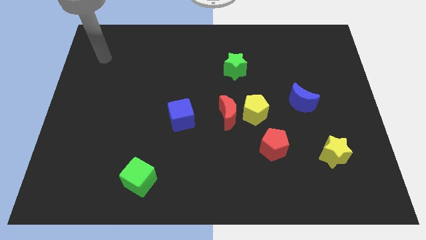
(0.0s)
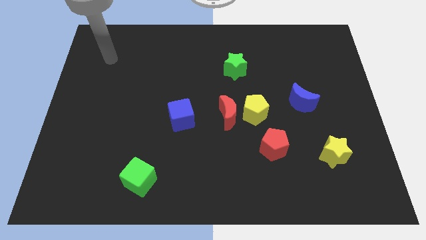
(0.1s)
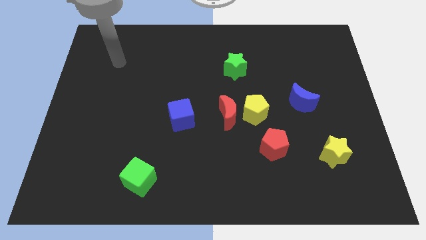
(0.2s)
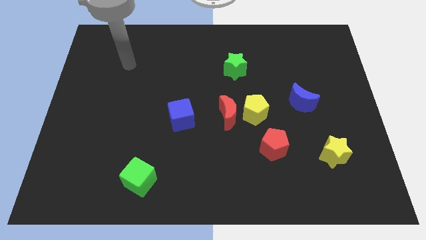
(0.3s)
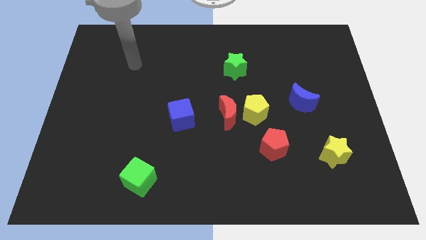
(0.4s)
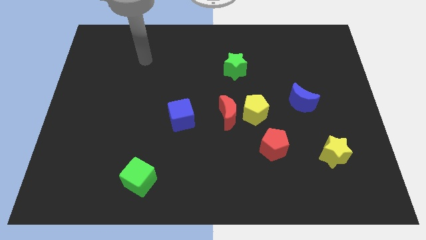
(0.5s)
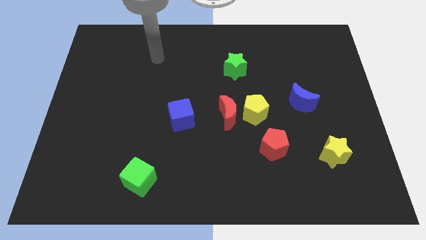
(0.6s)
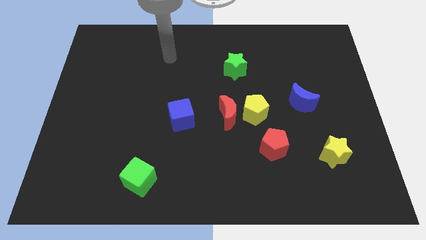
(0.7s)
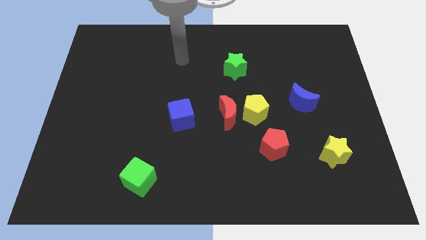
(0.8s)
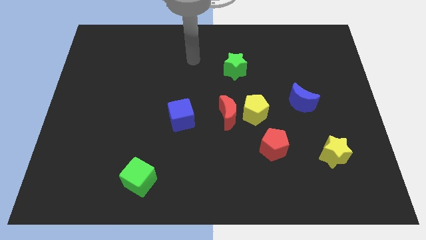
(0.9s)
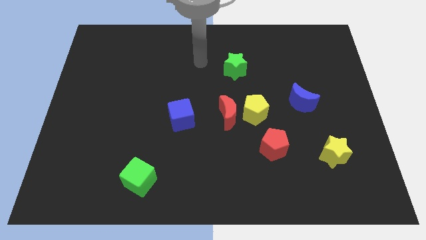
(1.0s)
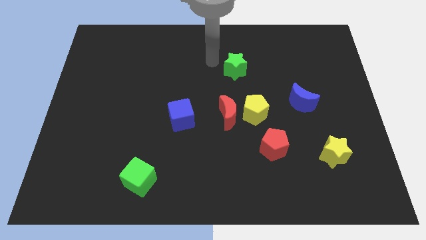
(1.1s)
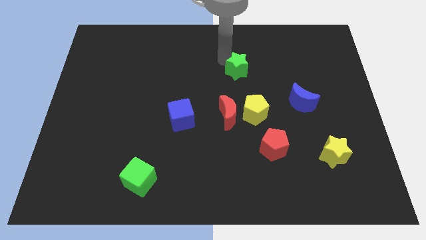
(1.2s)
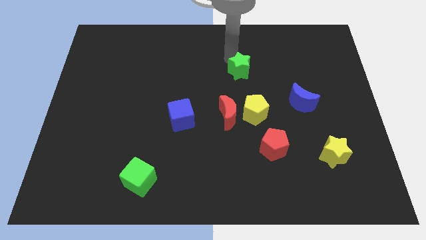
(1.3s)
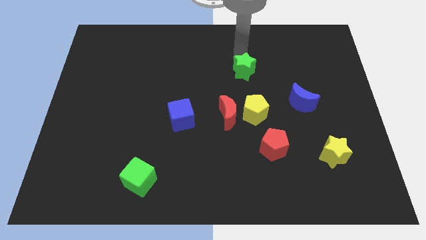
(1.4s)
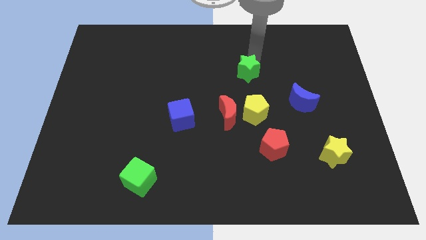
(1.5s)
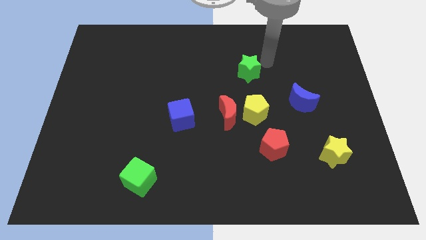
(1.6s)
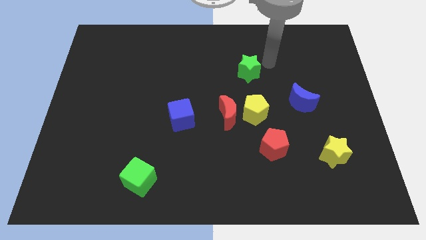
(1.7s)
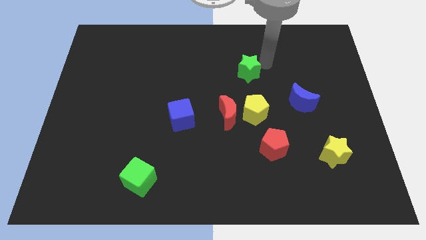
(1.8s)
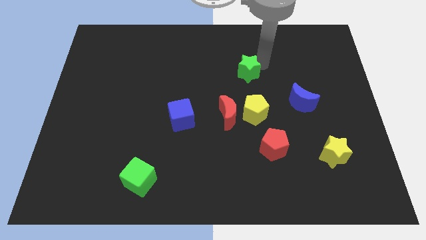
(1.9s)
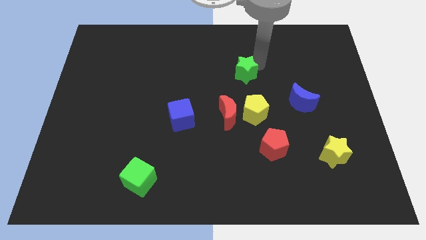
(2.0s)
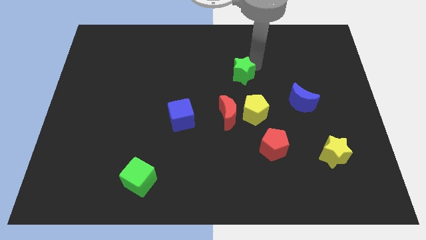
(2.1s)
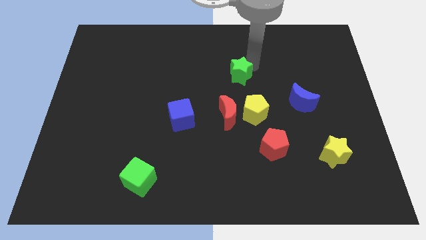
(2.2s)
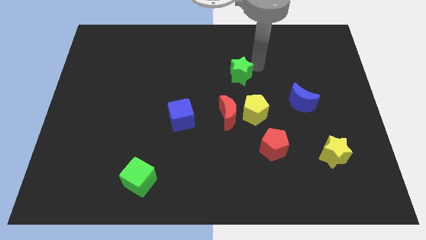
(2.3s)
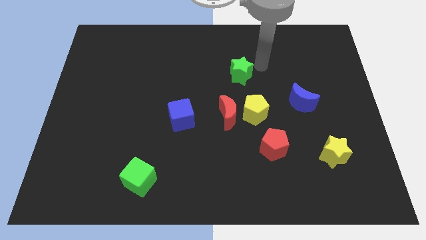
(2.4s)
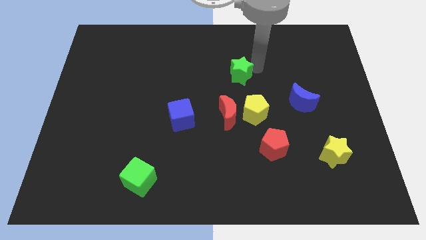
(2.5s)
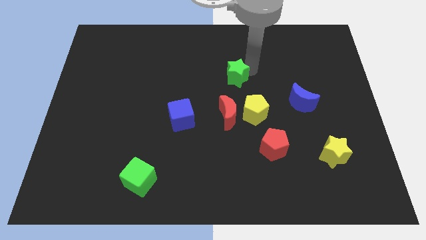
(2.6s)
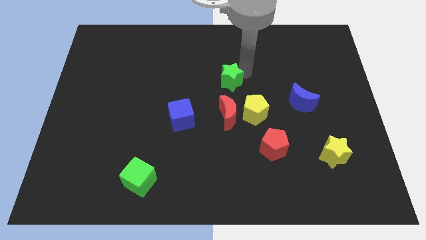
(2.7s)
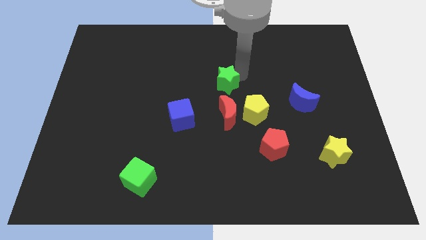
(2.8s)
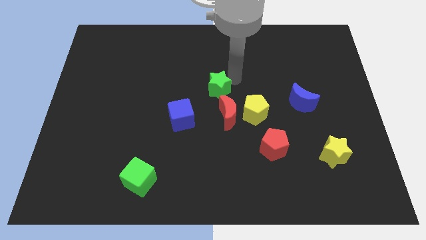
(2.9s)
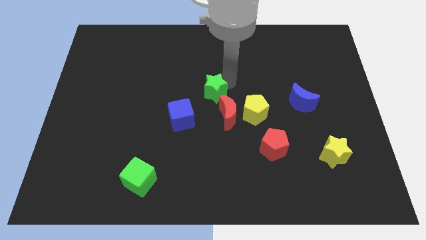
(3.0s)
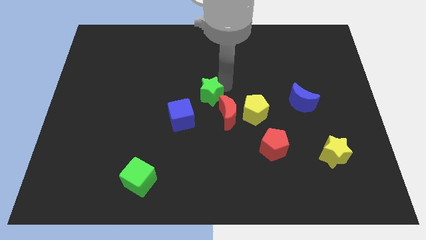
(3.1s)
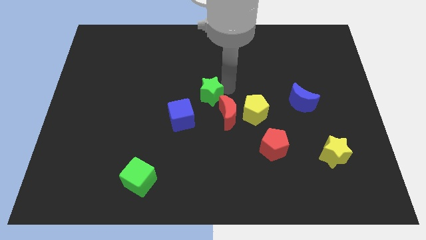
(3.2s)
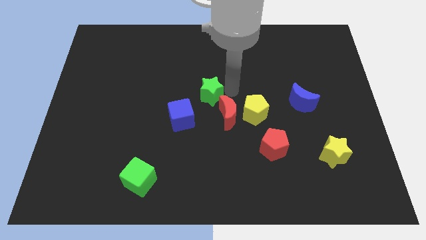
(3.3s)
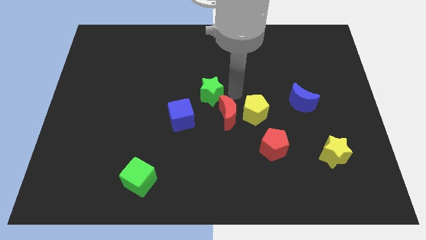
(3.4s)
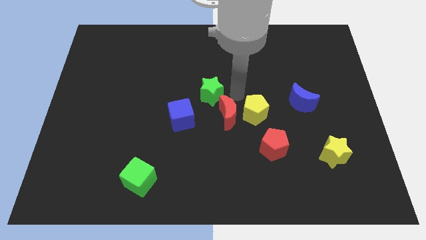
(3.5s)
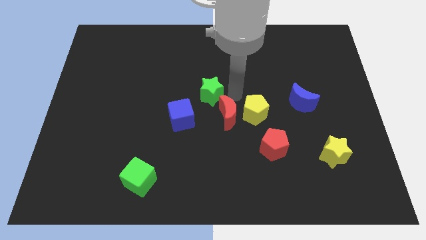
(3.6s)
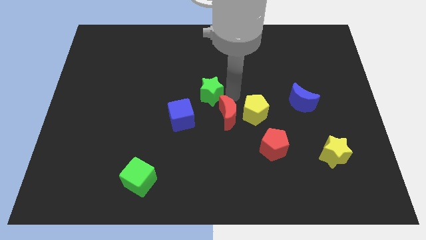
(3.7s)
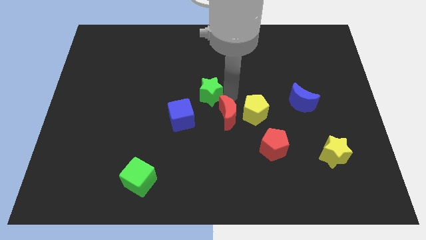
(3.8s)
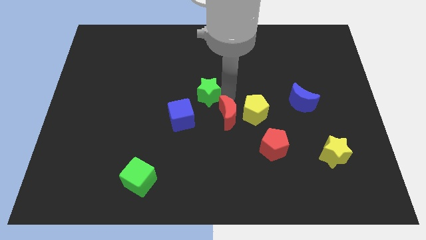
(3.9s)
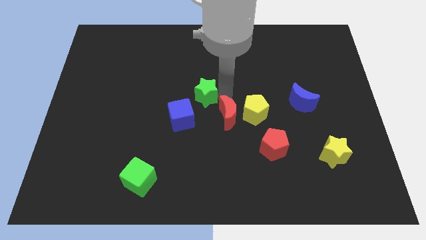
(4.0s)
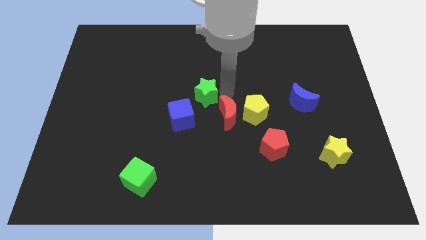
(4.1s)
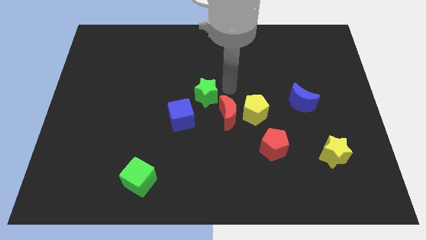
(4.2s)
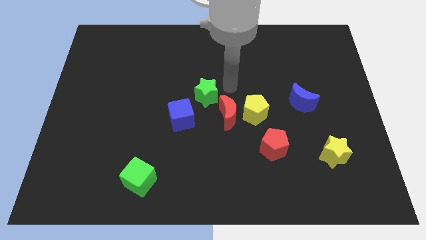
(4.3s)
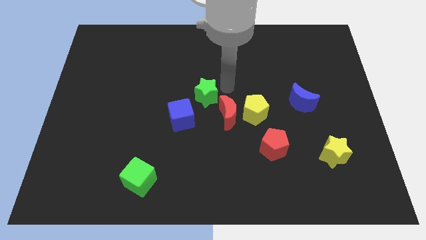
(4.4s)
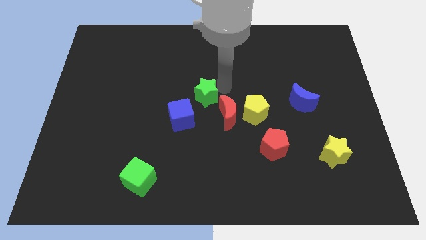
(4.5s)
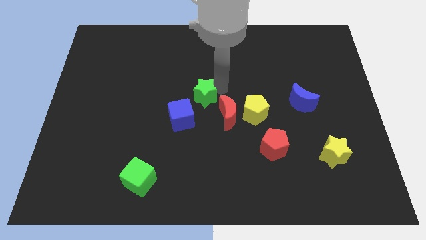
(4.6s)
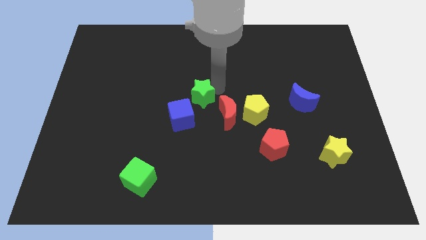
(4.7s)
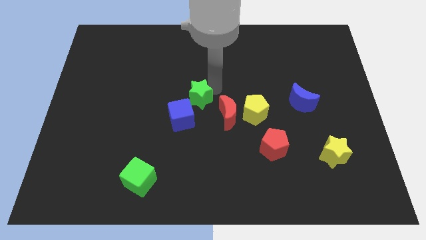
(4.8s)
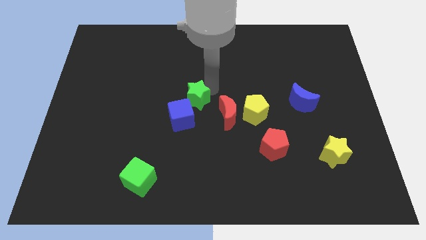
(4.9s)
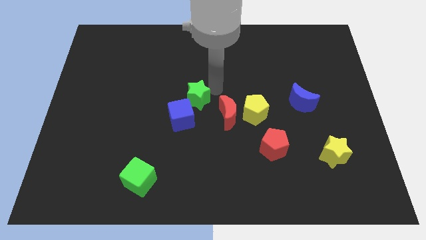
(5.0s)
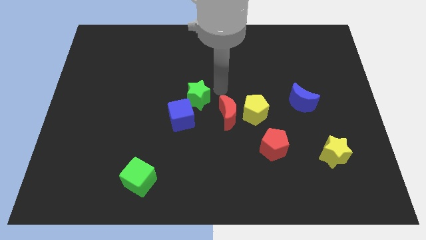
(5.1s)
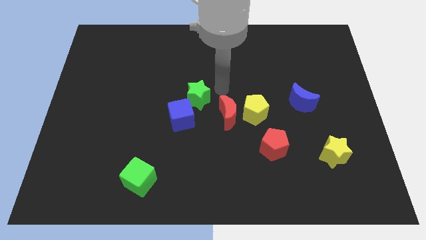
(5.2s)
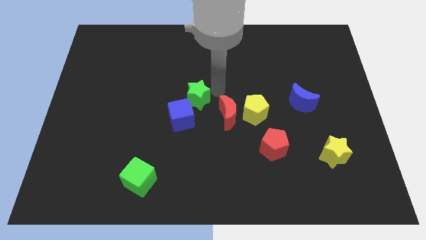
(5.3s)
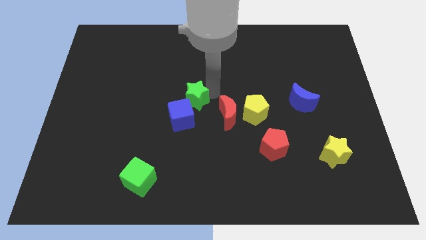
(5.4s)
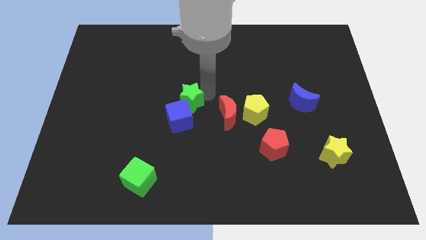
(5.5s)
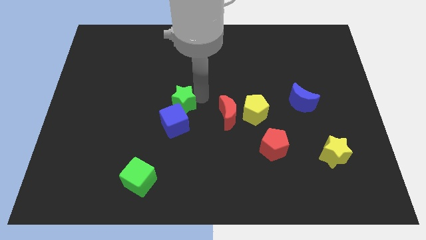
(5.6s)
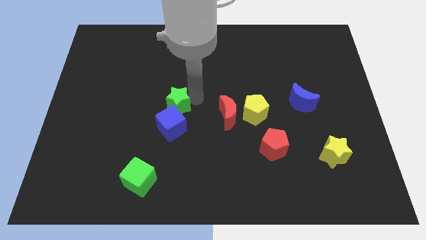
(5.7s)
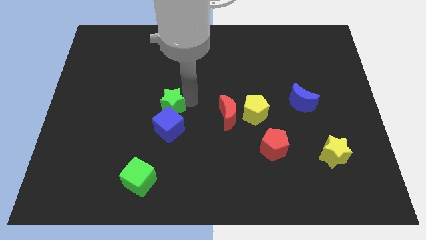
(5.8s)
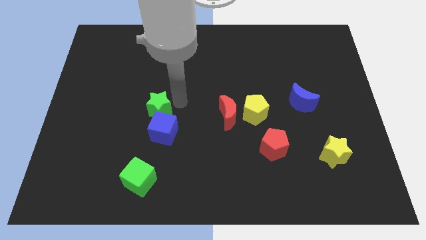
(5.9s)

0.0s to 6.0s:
slide the green star diagonally down and left

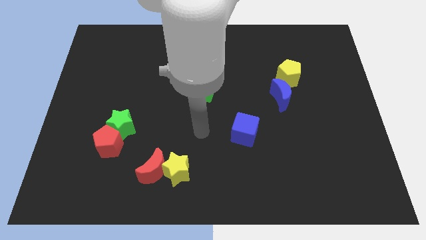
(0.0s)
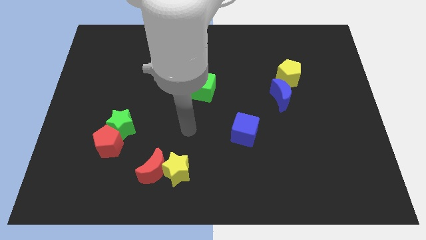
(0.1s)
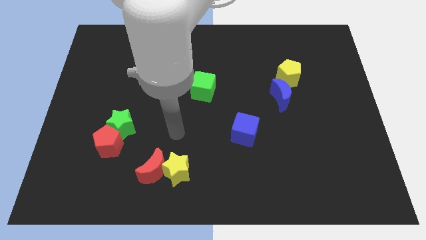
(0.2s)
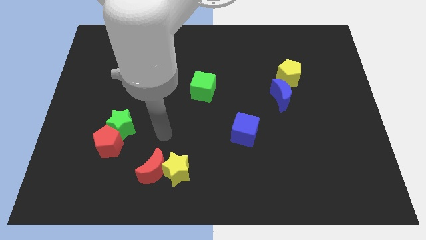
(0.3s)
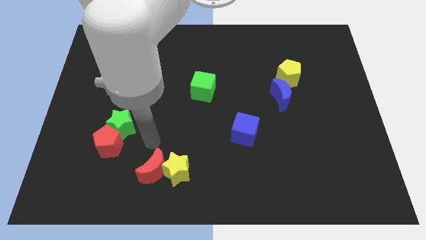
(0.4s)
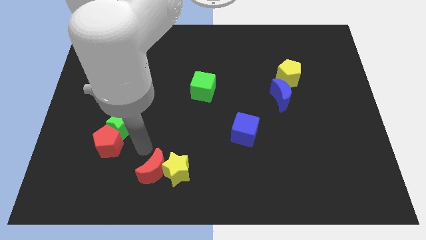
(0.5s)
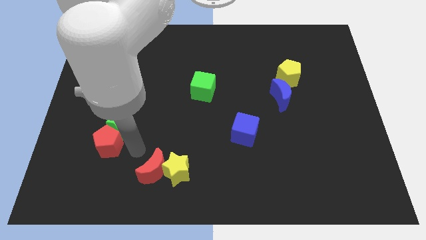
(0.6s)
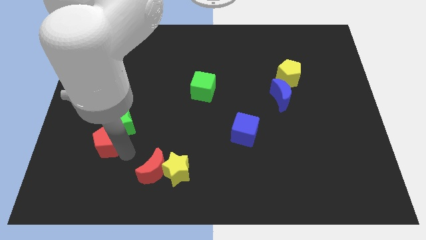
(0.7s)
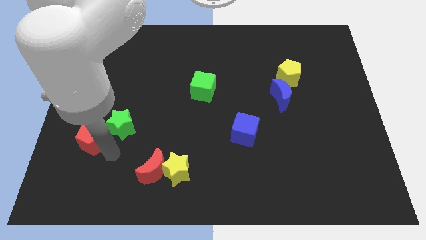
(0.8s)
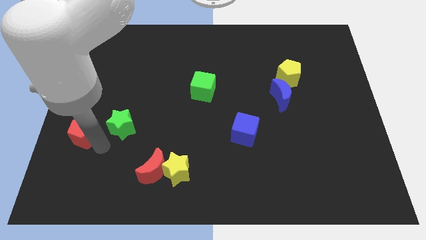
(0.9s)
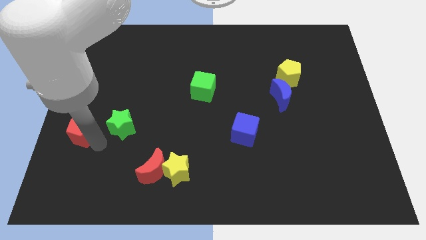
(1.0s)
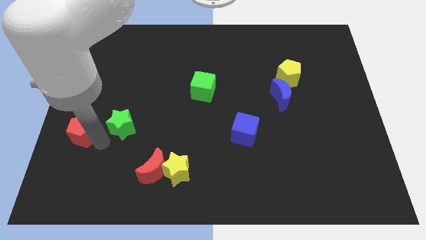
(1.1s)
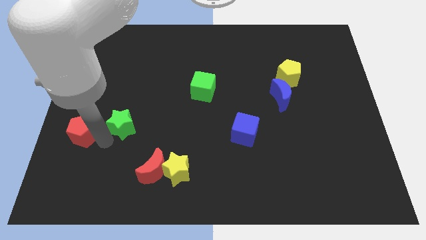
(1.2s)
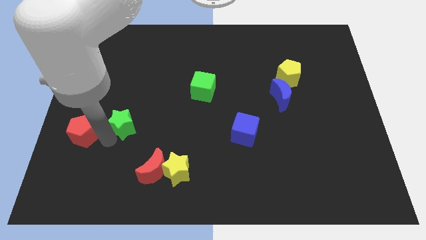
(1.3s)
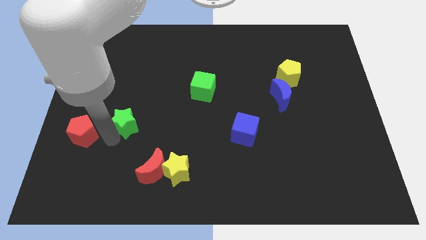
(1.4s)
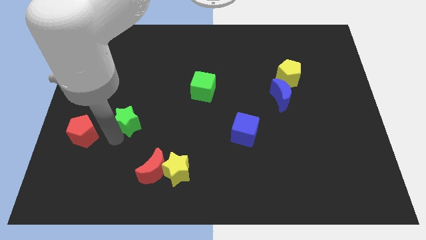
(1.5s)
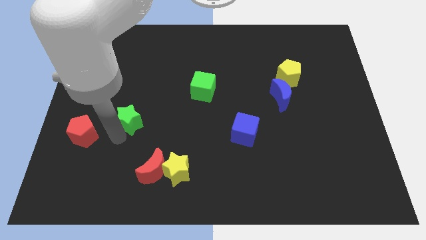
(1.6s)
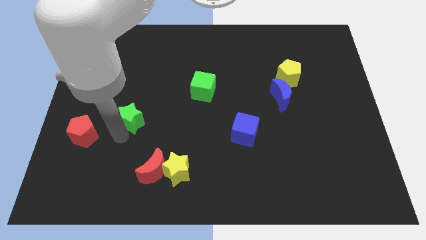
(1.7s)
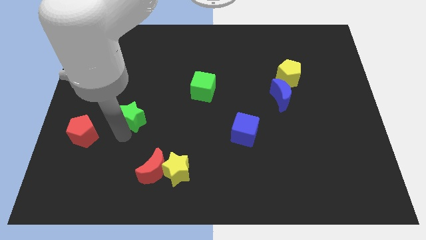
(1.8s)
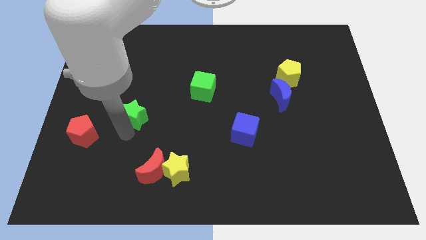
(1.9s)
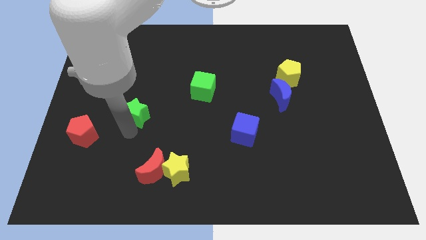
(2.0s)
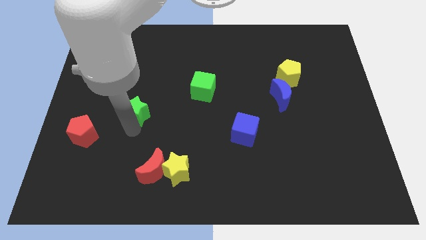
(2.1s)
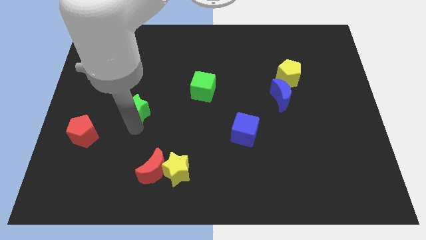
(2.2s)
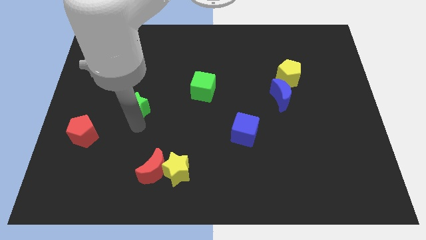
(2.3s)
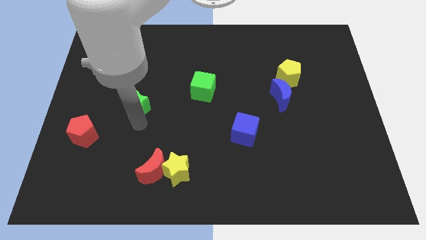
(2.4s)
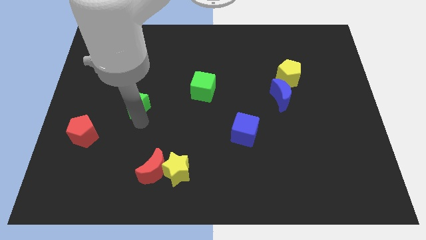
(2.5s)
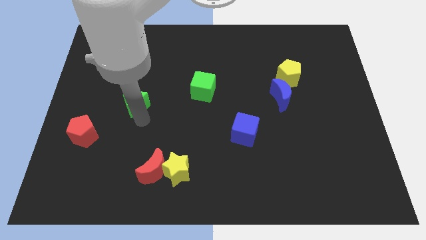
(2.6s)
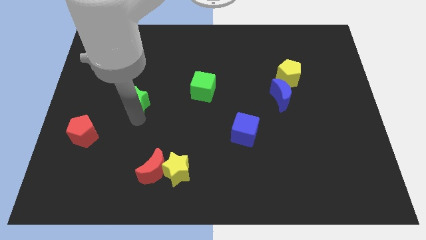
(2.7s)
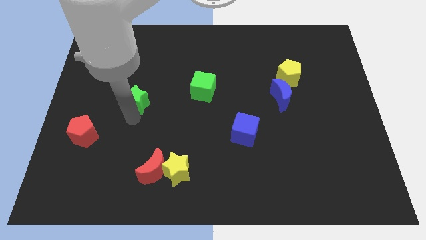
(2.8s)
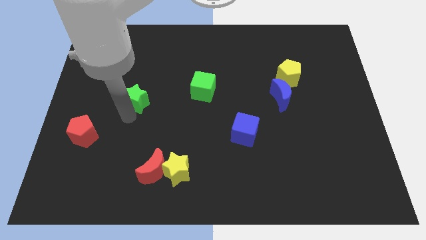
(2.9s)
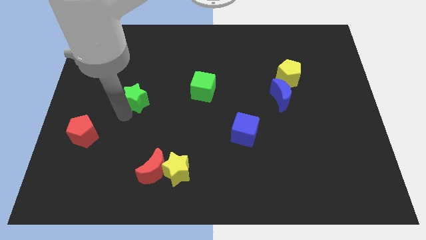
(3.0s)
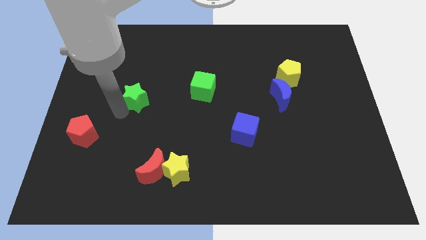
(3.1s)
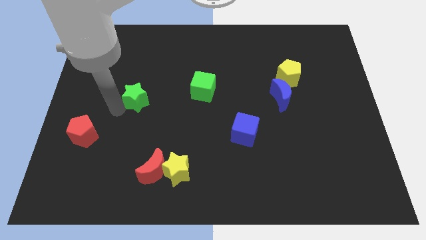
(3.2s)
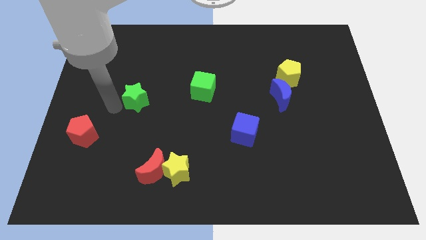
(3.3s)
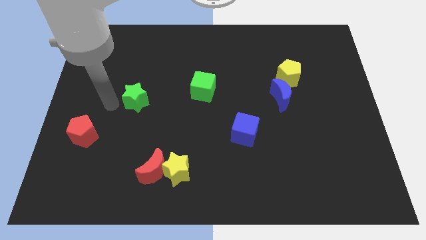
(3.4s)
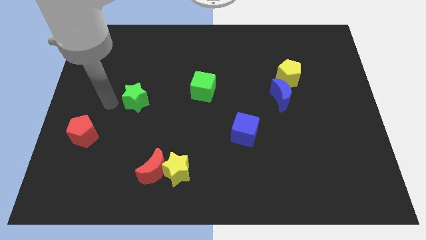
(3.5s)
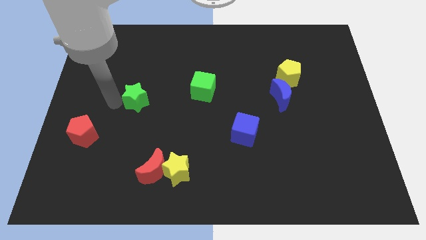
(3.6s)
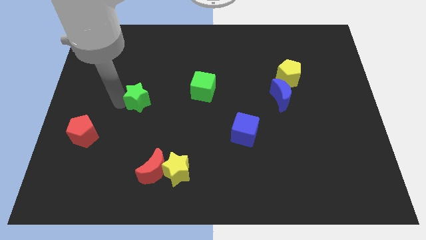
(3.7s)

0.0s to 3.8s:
move the green star a little bit upwards and right
